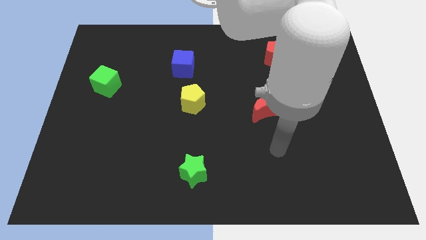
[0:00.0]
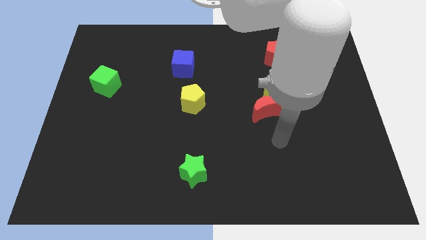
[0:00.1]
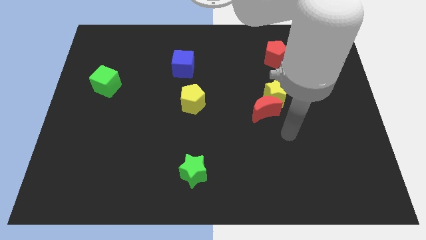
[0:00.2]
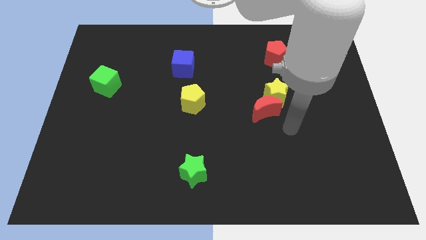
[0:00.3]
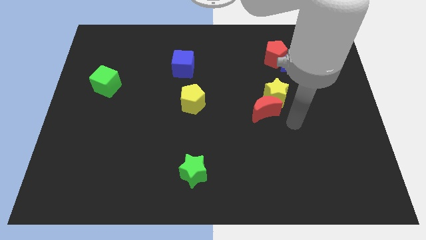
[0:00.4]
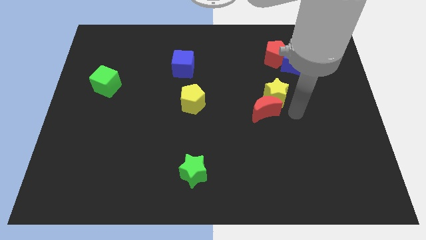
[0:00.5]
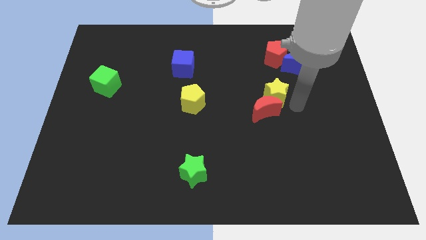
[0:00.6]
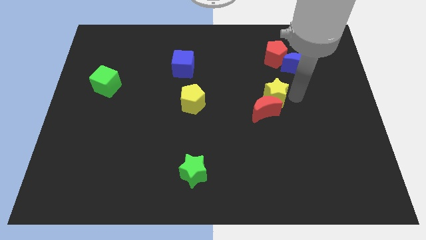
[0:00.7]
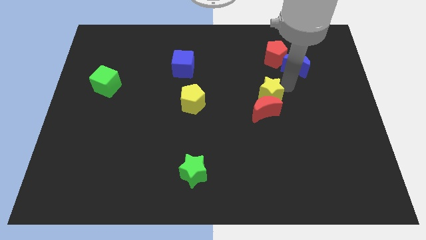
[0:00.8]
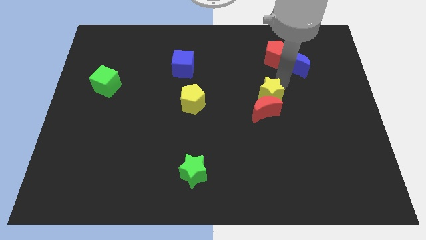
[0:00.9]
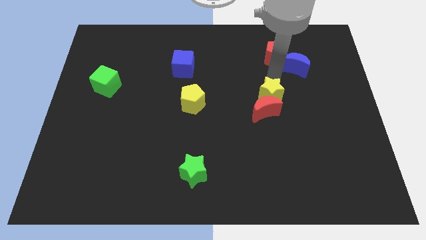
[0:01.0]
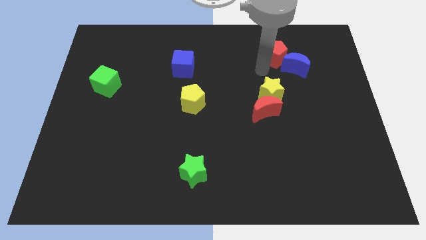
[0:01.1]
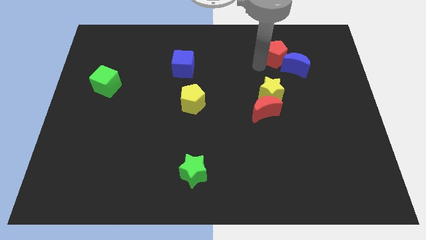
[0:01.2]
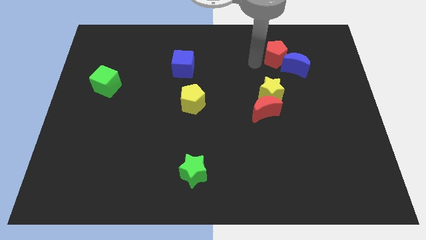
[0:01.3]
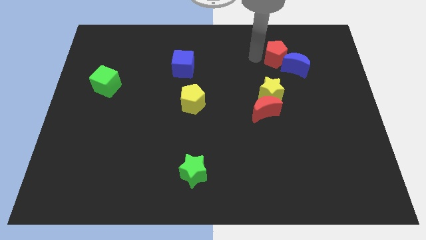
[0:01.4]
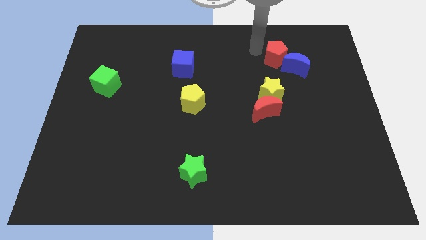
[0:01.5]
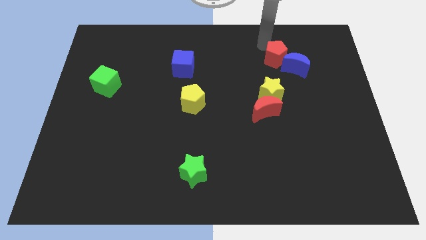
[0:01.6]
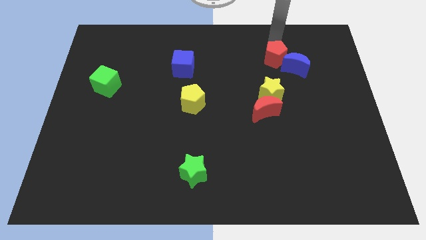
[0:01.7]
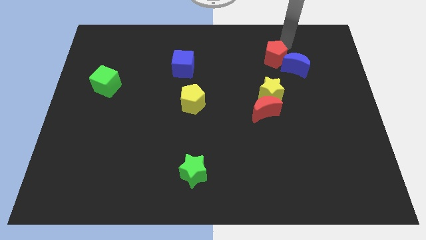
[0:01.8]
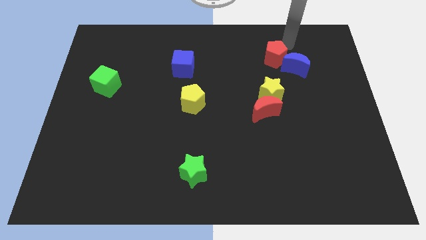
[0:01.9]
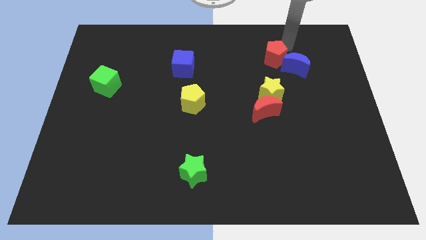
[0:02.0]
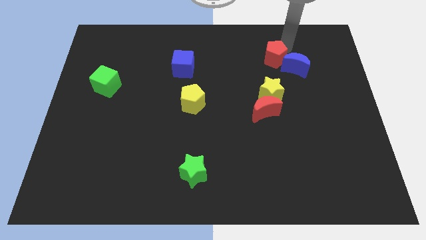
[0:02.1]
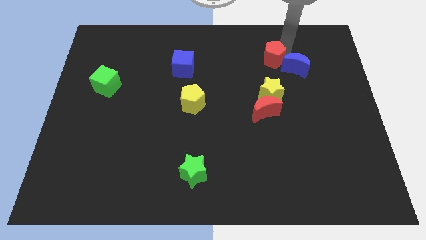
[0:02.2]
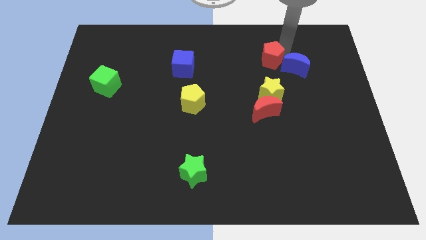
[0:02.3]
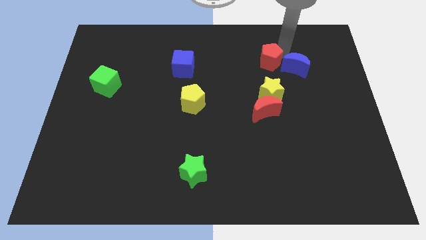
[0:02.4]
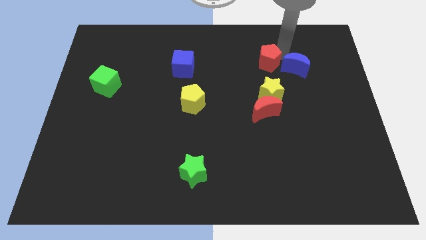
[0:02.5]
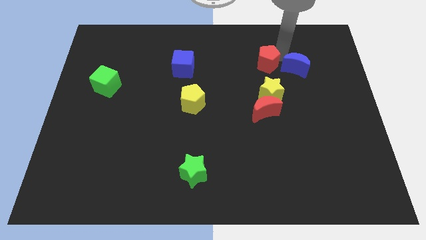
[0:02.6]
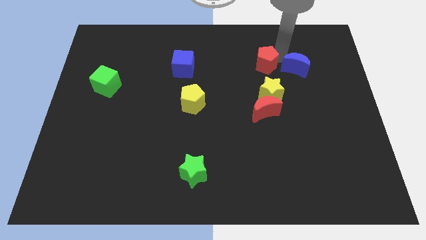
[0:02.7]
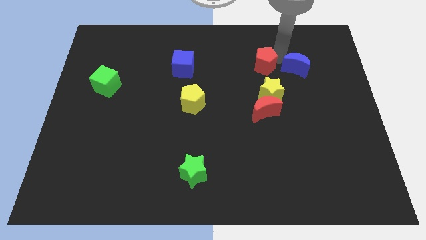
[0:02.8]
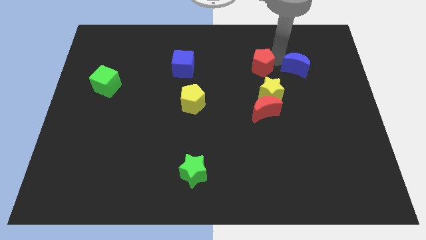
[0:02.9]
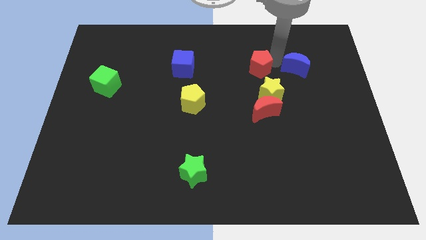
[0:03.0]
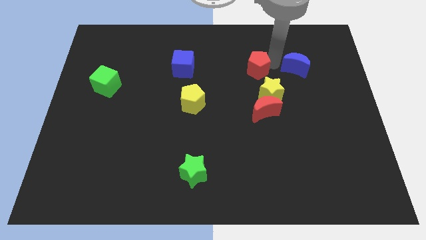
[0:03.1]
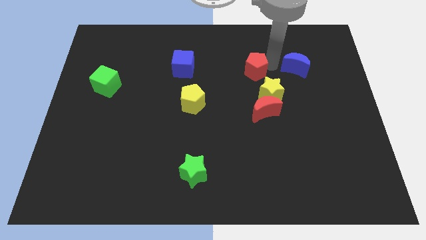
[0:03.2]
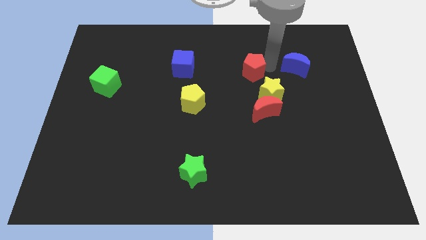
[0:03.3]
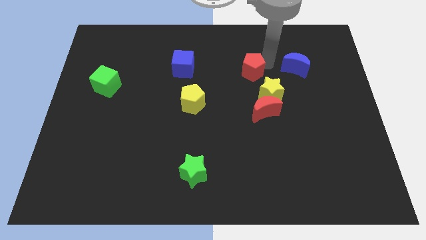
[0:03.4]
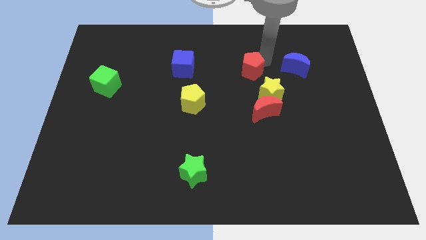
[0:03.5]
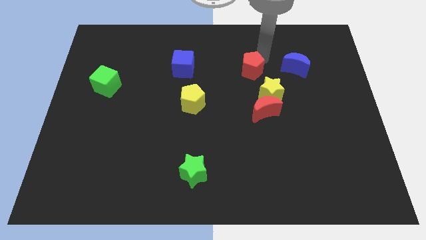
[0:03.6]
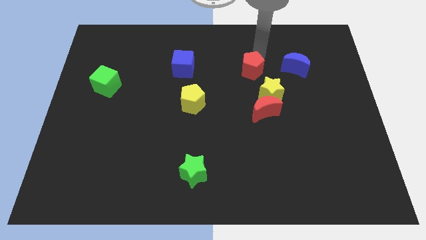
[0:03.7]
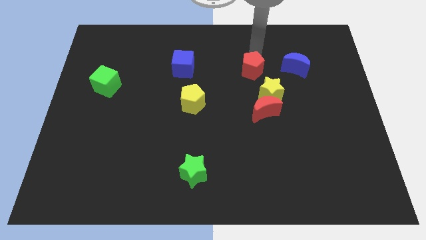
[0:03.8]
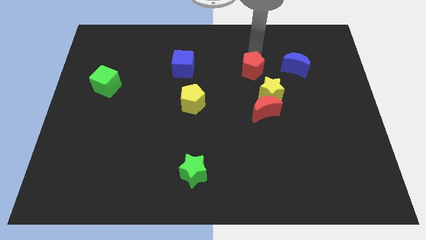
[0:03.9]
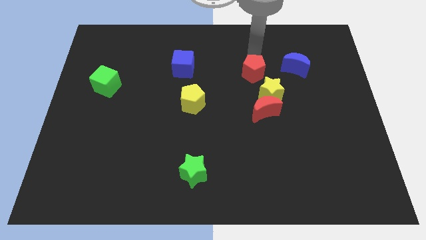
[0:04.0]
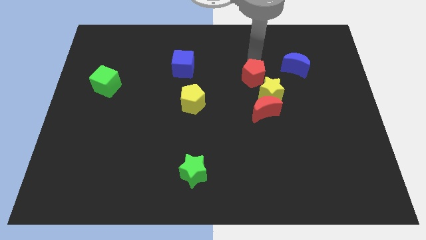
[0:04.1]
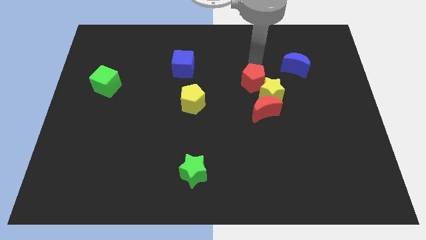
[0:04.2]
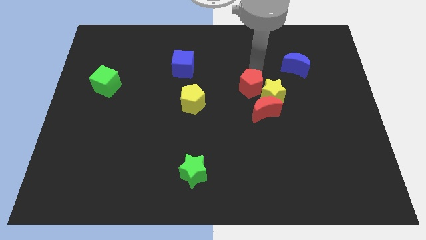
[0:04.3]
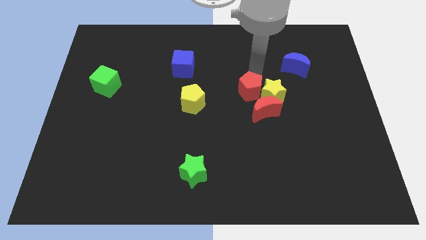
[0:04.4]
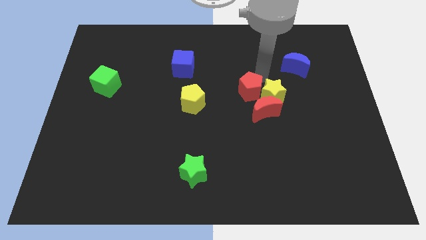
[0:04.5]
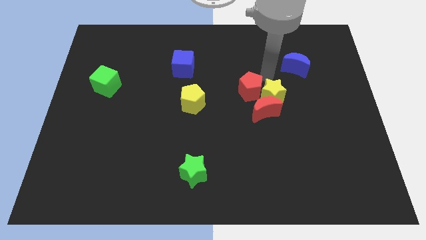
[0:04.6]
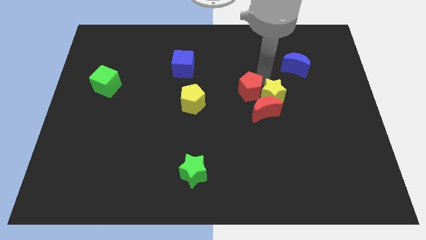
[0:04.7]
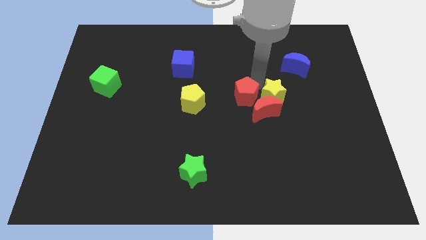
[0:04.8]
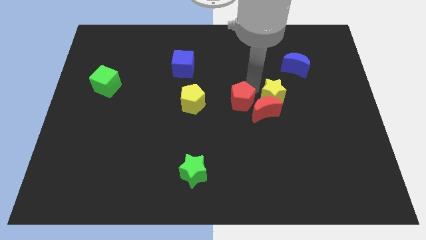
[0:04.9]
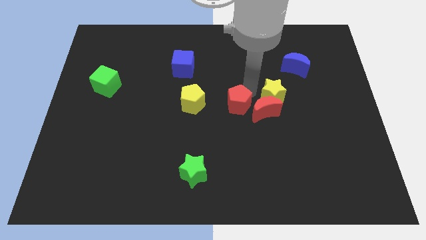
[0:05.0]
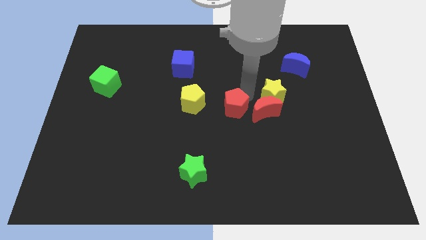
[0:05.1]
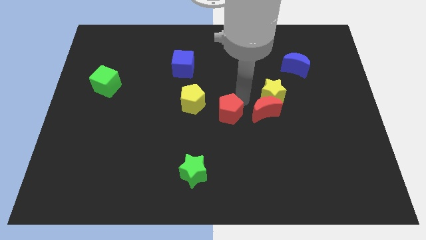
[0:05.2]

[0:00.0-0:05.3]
put the red pentagon diagonally down and to the right of the yellow pentagon

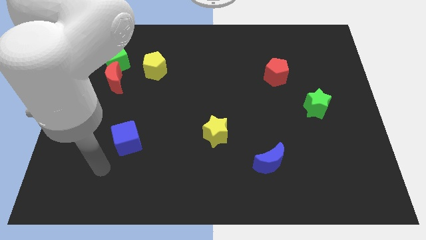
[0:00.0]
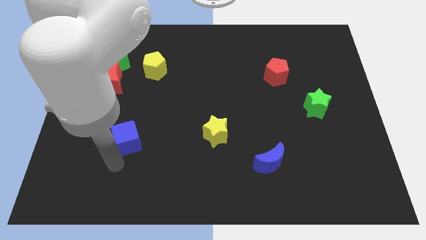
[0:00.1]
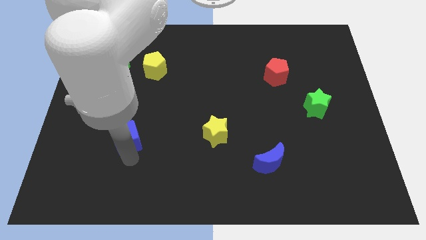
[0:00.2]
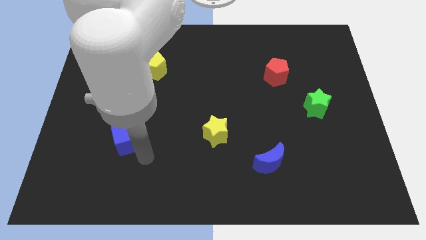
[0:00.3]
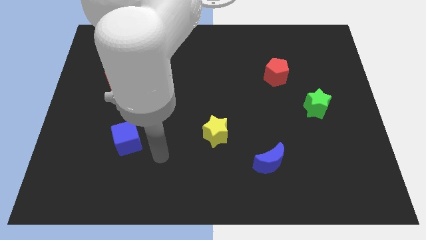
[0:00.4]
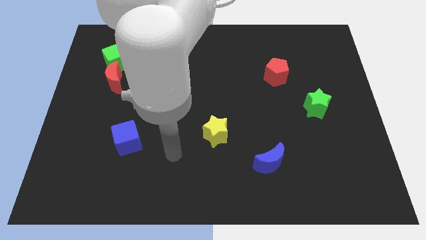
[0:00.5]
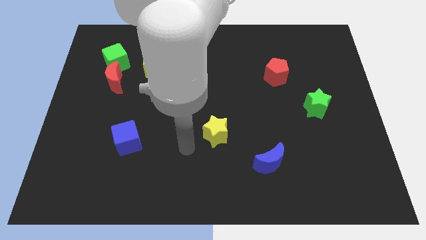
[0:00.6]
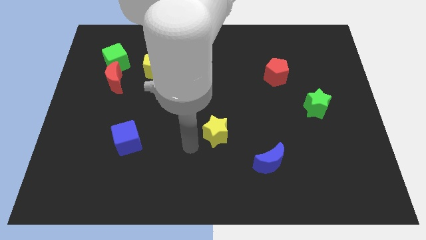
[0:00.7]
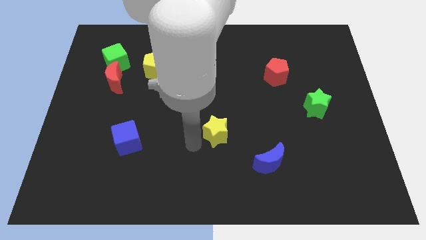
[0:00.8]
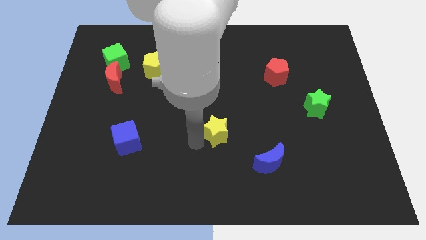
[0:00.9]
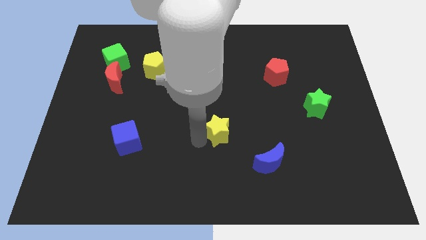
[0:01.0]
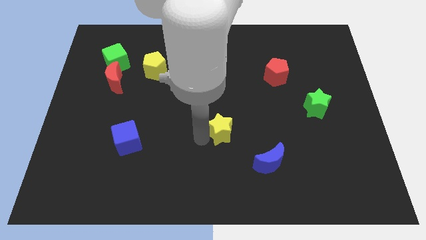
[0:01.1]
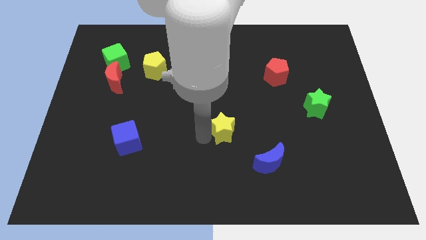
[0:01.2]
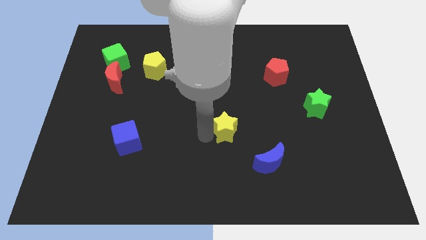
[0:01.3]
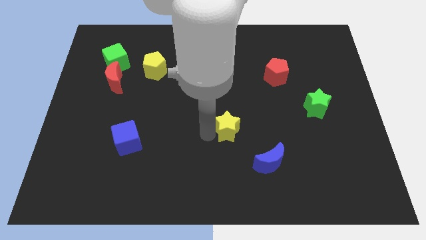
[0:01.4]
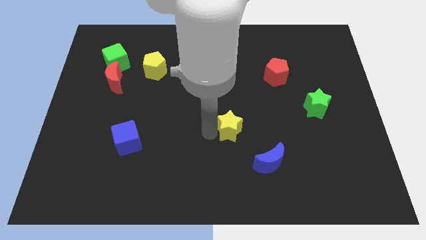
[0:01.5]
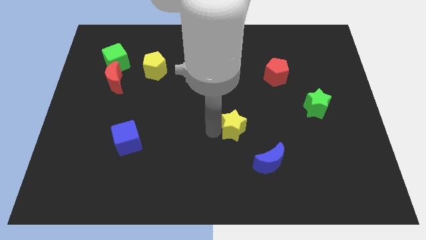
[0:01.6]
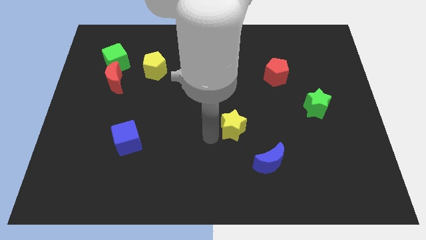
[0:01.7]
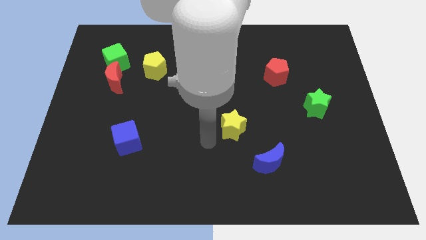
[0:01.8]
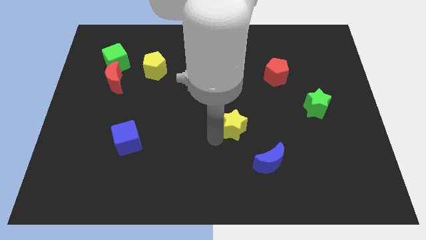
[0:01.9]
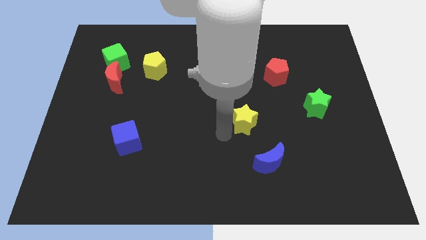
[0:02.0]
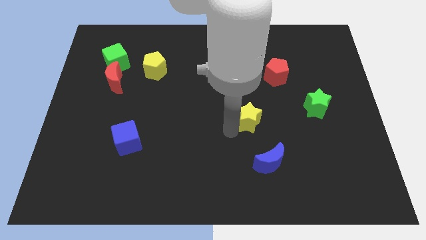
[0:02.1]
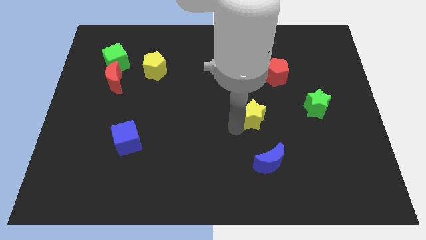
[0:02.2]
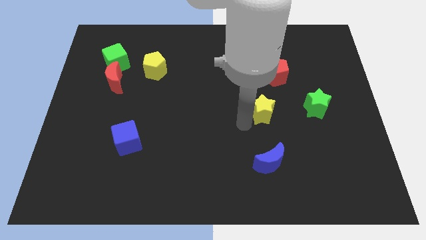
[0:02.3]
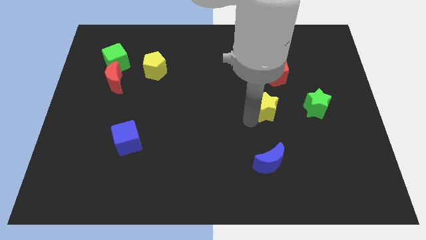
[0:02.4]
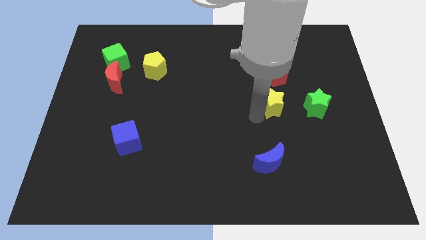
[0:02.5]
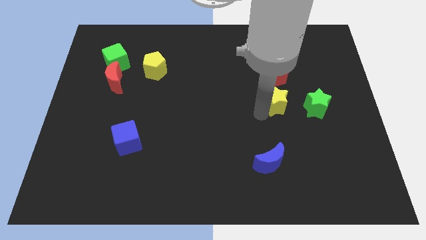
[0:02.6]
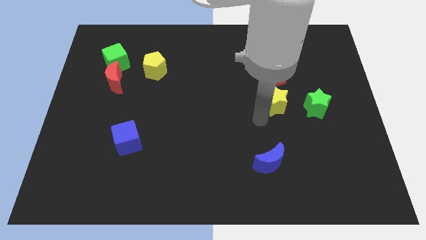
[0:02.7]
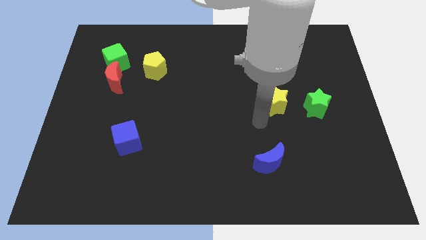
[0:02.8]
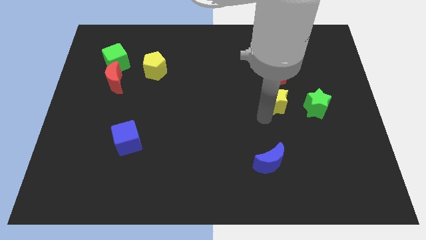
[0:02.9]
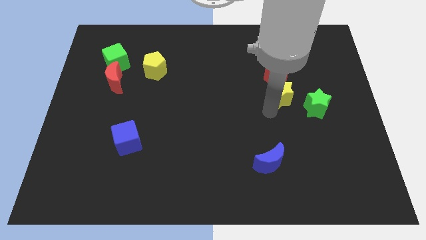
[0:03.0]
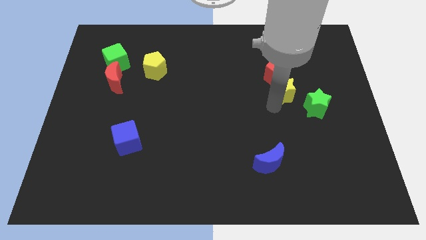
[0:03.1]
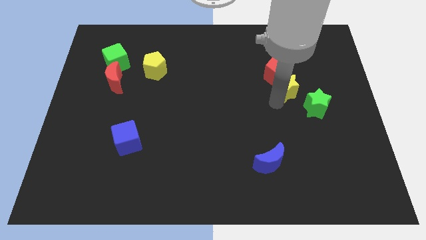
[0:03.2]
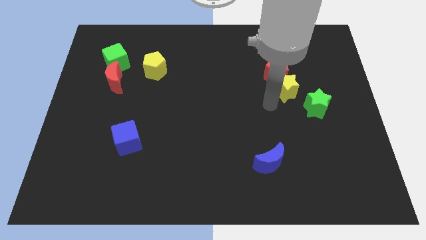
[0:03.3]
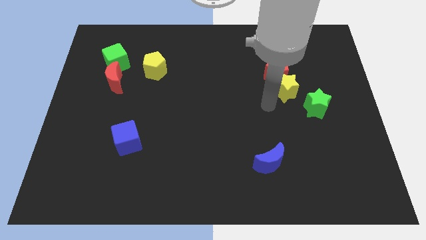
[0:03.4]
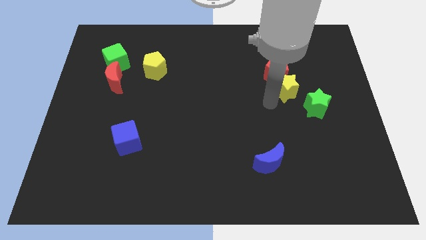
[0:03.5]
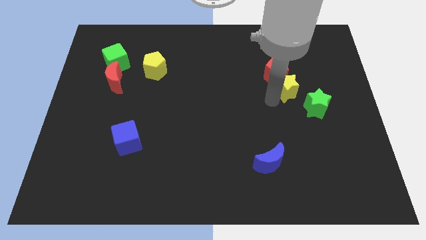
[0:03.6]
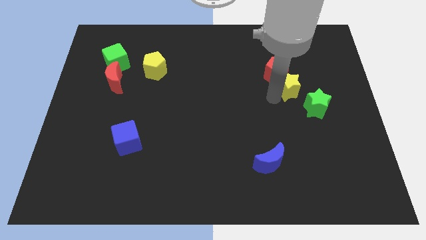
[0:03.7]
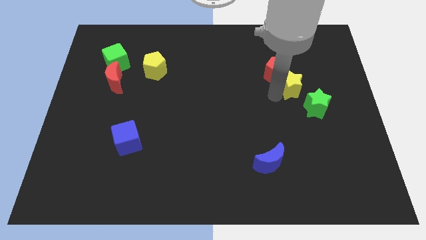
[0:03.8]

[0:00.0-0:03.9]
push the yellow star above the green star
